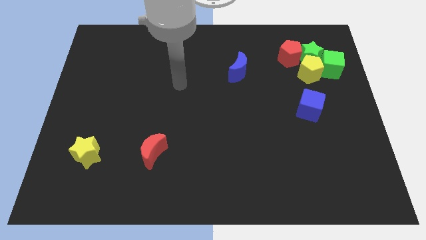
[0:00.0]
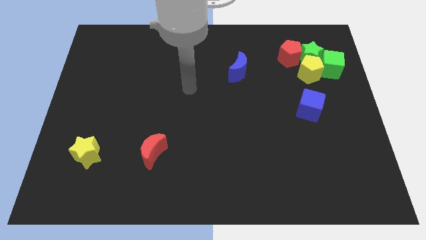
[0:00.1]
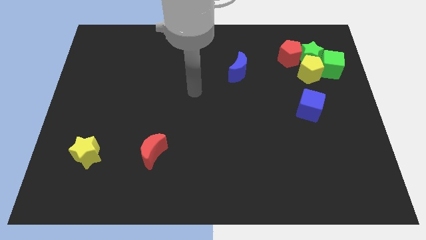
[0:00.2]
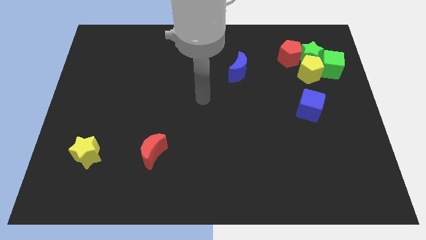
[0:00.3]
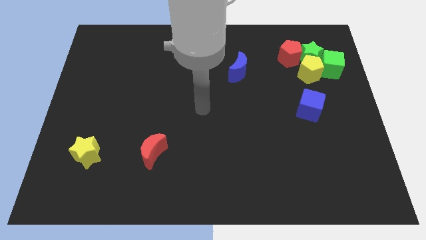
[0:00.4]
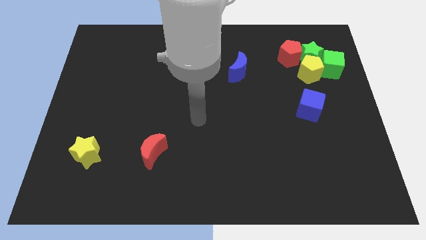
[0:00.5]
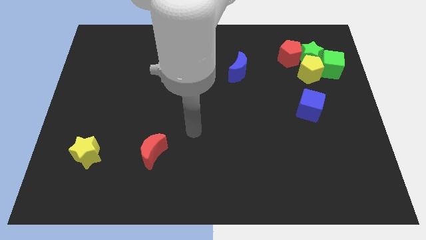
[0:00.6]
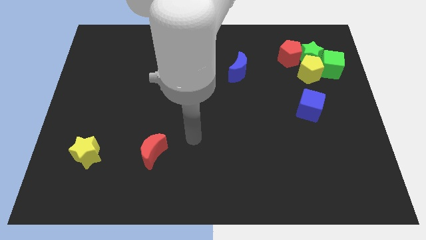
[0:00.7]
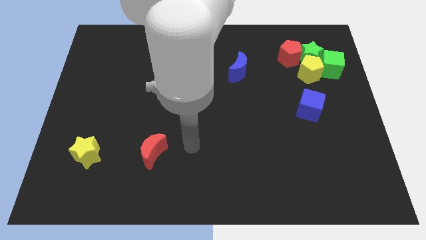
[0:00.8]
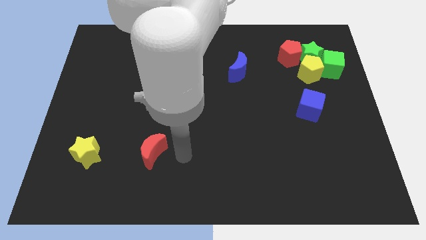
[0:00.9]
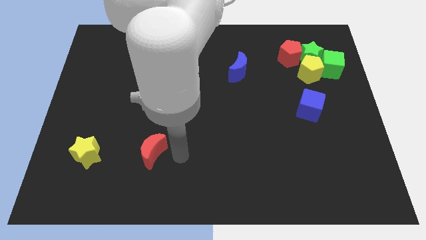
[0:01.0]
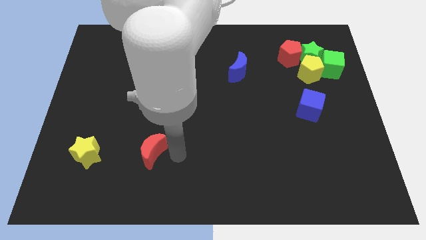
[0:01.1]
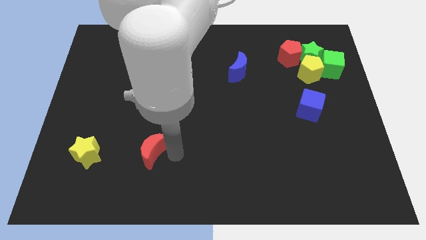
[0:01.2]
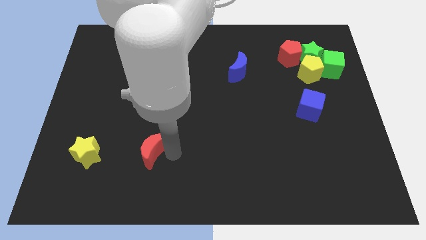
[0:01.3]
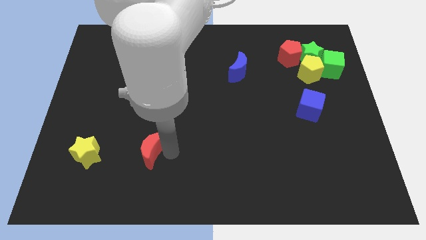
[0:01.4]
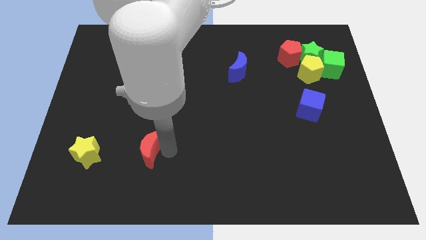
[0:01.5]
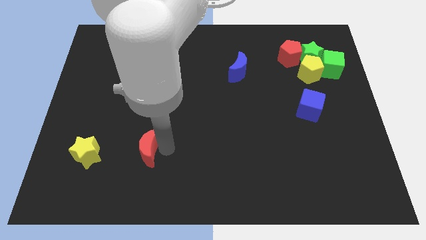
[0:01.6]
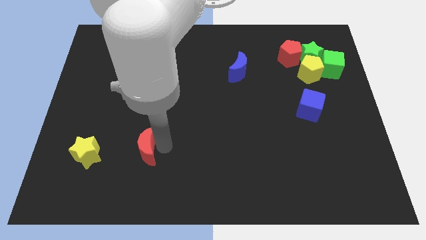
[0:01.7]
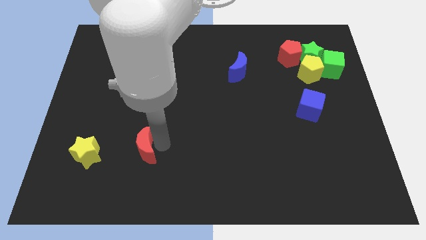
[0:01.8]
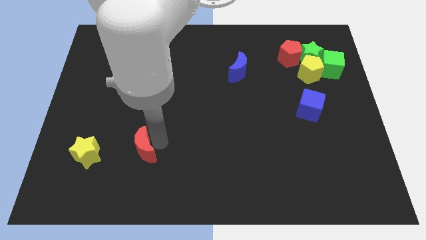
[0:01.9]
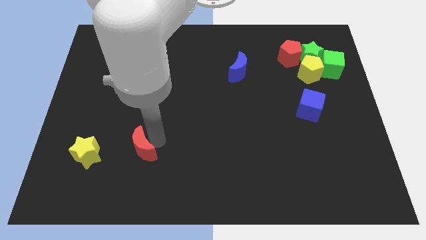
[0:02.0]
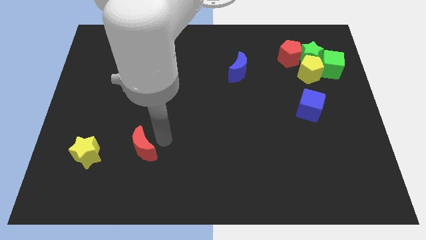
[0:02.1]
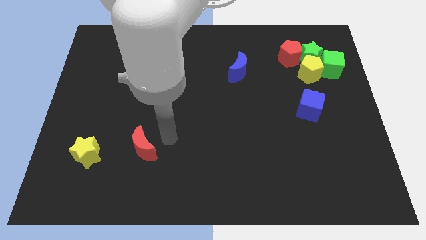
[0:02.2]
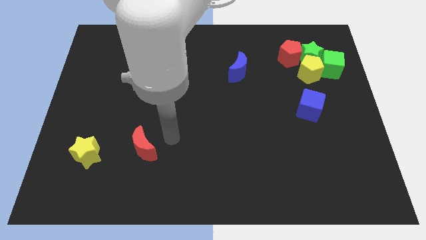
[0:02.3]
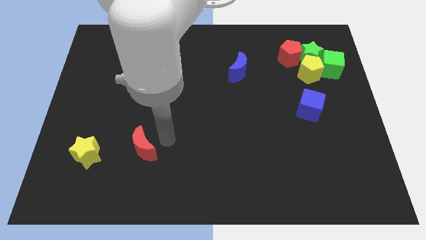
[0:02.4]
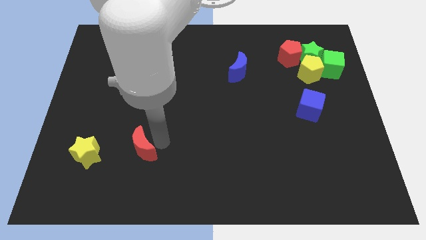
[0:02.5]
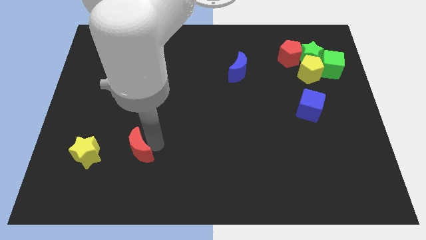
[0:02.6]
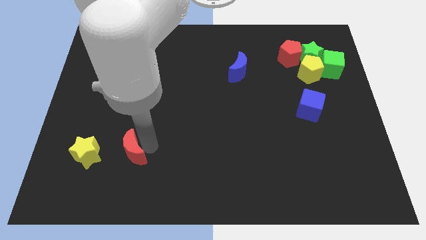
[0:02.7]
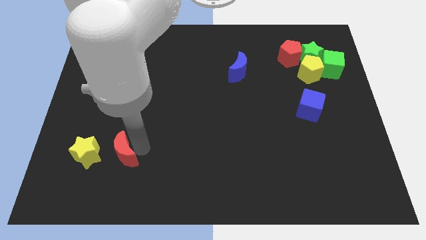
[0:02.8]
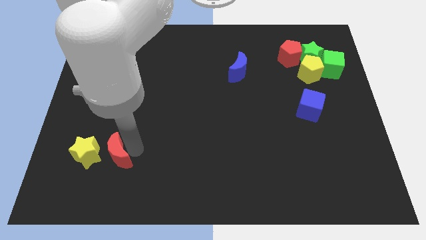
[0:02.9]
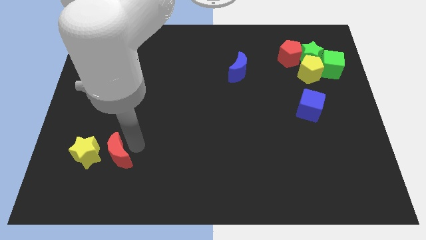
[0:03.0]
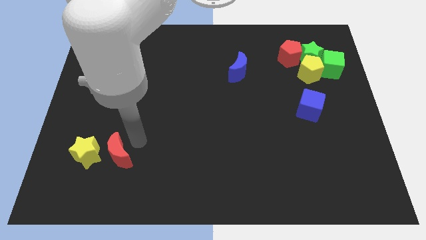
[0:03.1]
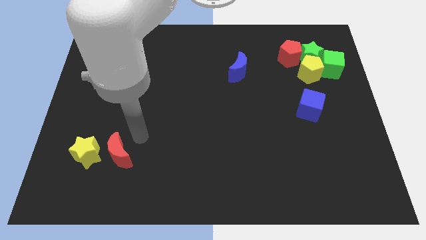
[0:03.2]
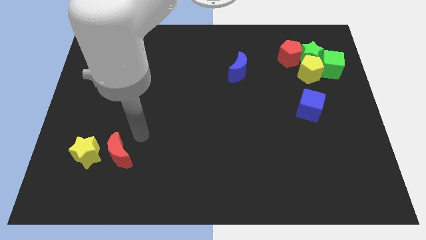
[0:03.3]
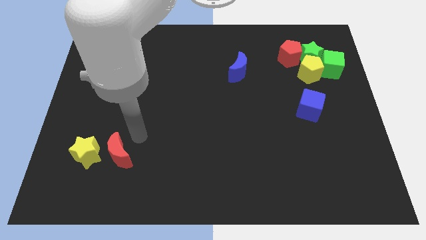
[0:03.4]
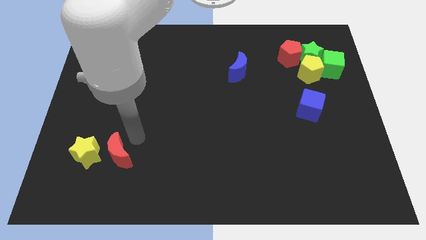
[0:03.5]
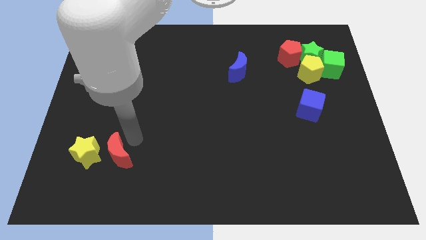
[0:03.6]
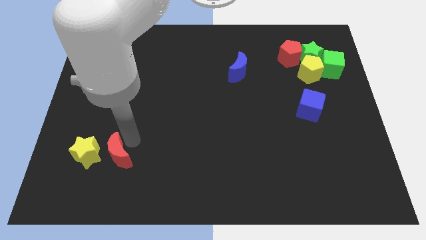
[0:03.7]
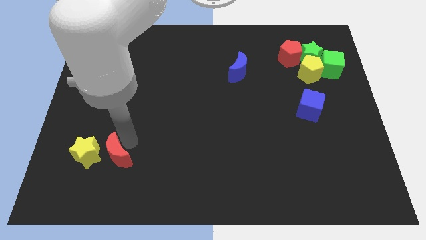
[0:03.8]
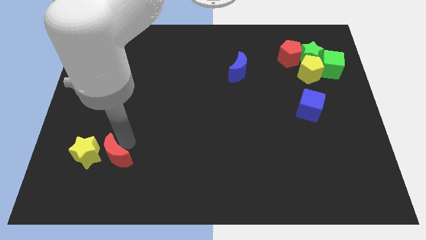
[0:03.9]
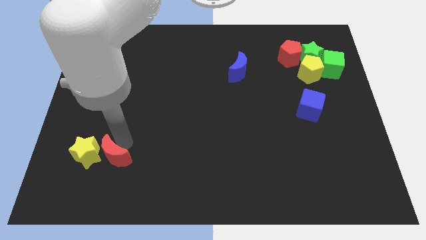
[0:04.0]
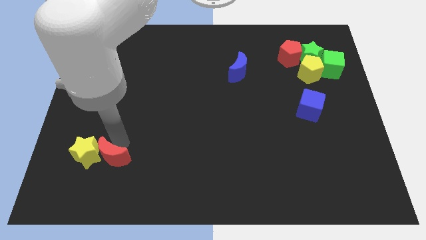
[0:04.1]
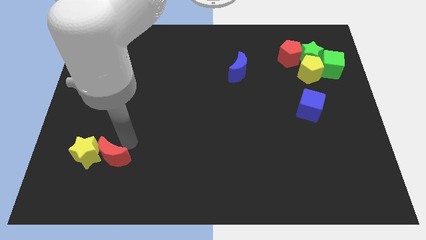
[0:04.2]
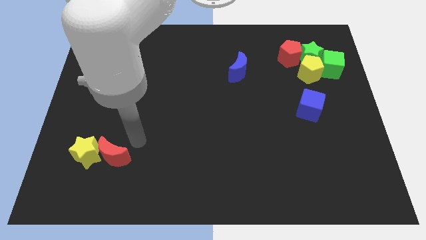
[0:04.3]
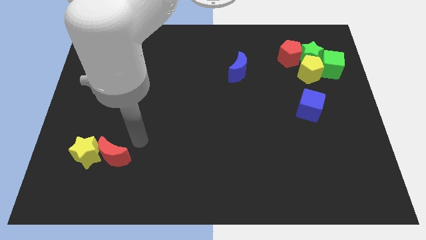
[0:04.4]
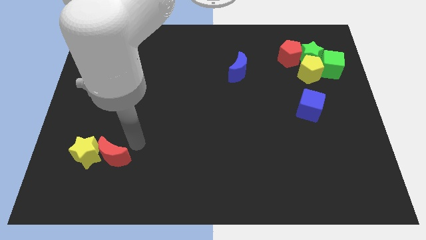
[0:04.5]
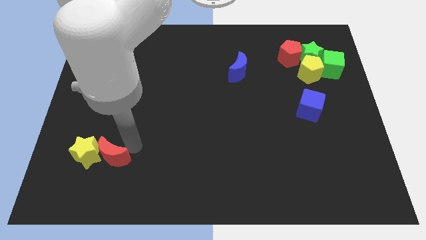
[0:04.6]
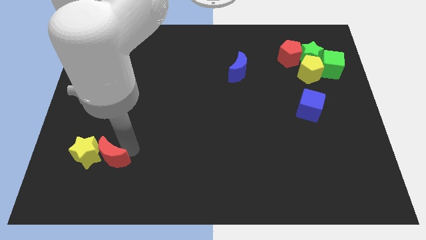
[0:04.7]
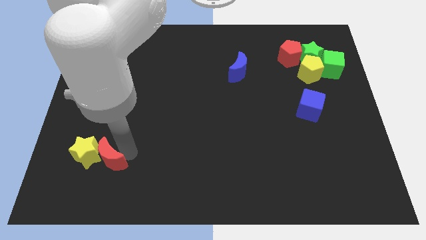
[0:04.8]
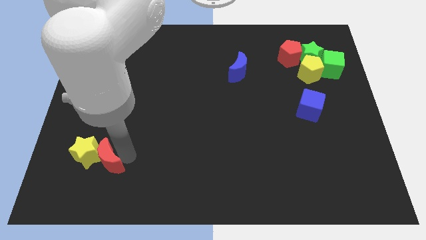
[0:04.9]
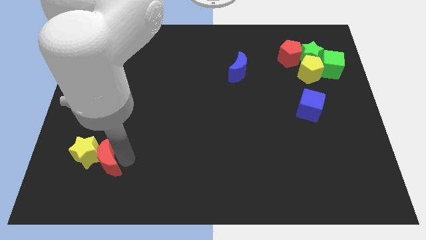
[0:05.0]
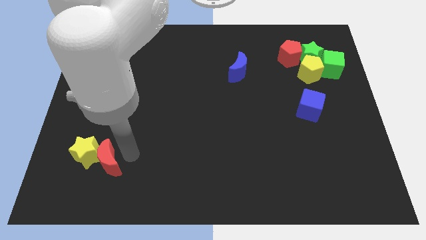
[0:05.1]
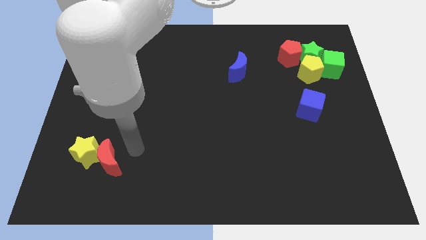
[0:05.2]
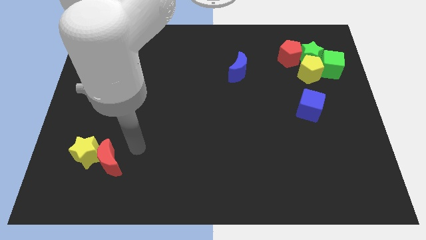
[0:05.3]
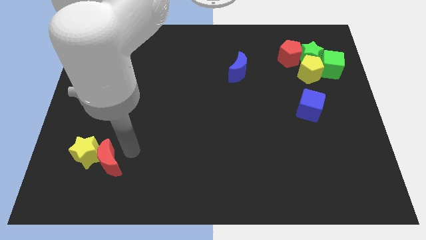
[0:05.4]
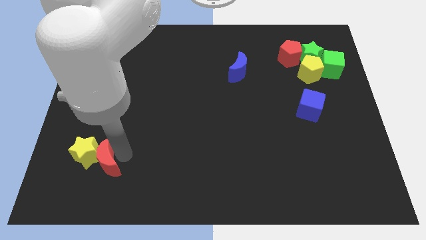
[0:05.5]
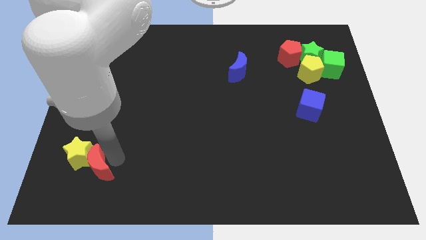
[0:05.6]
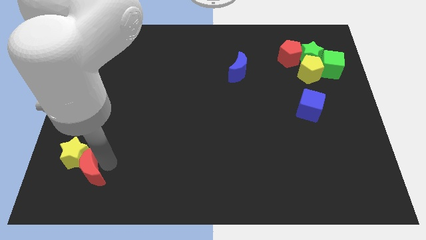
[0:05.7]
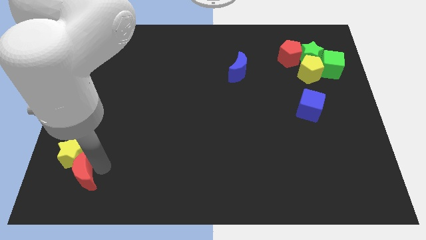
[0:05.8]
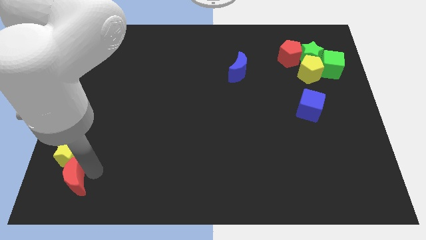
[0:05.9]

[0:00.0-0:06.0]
move the red moon to the lower left corner

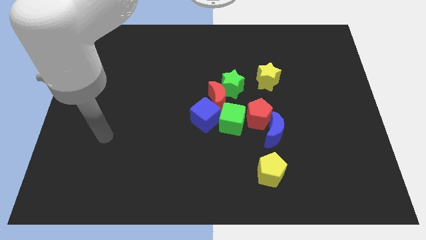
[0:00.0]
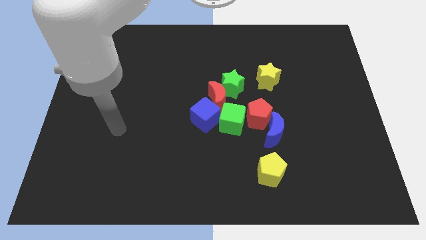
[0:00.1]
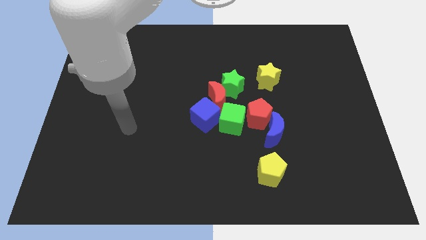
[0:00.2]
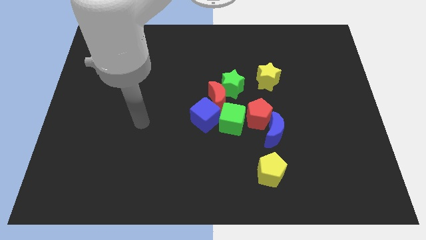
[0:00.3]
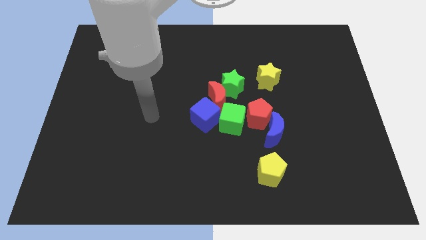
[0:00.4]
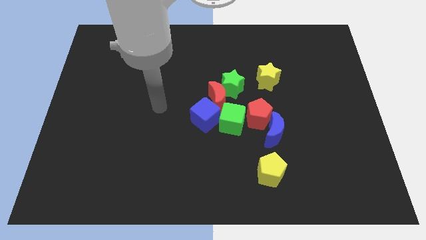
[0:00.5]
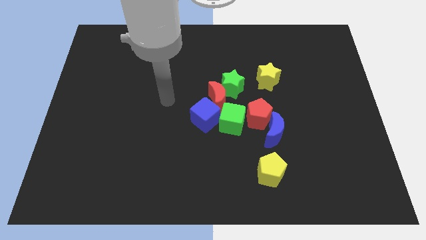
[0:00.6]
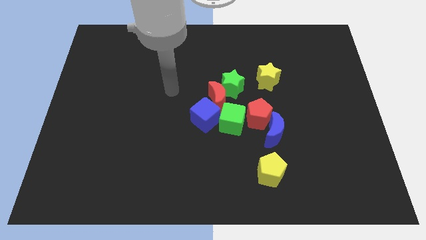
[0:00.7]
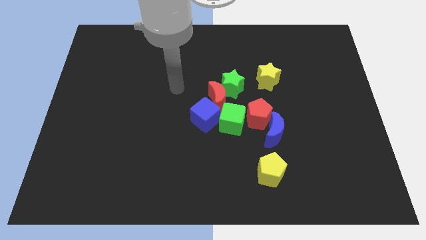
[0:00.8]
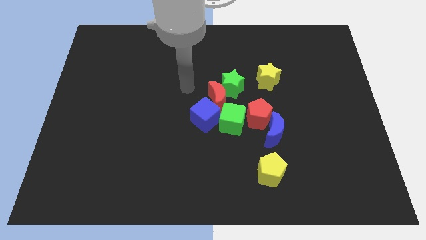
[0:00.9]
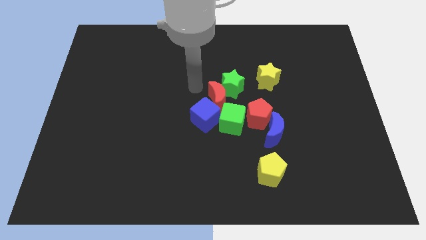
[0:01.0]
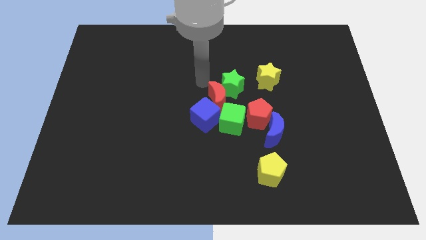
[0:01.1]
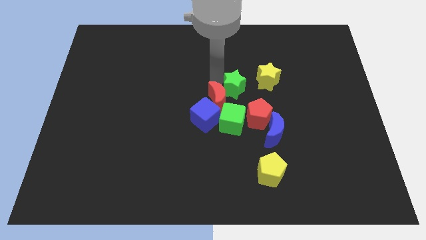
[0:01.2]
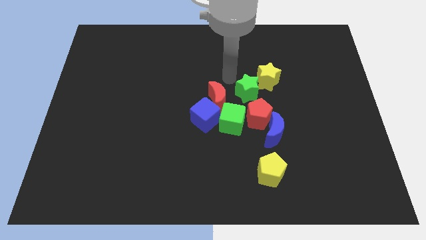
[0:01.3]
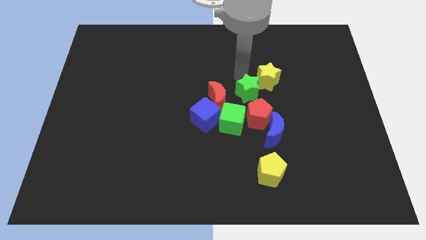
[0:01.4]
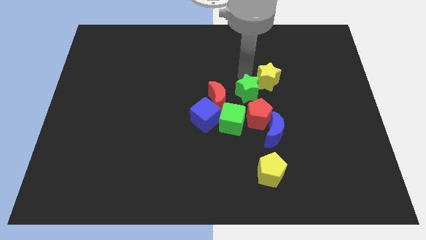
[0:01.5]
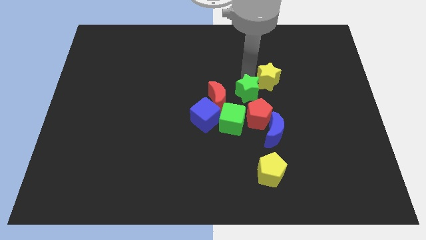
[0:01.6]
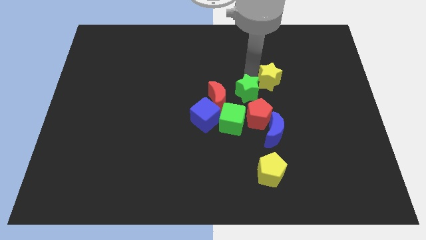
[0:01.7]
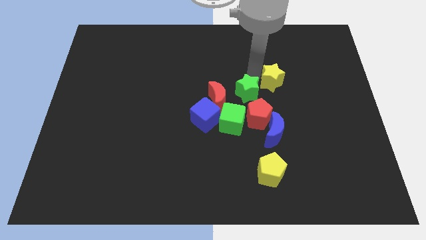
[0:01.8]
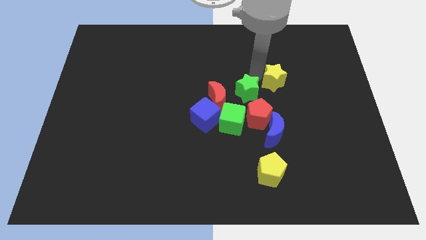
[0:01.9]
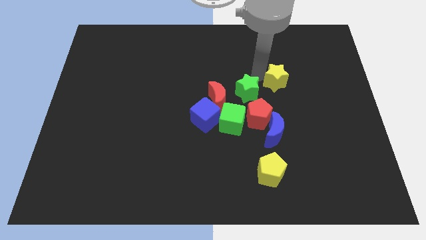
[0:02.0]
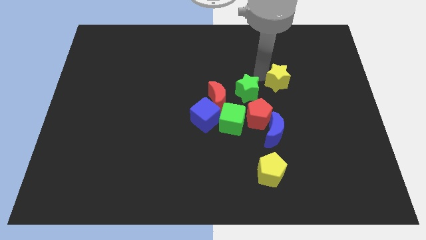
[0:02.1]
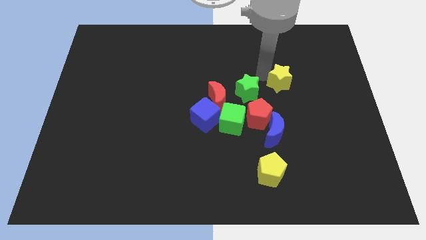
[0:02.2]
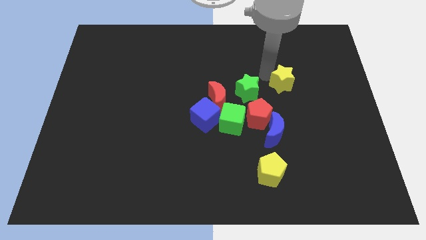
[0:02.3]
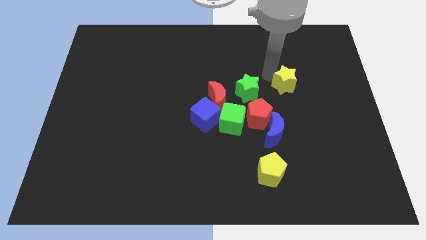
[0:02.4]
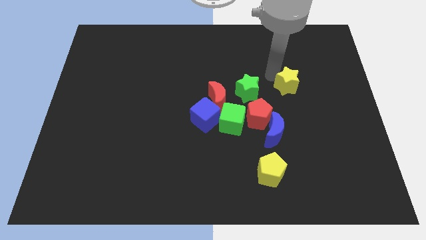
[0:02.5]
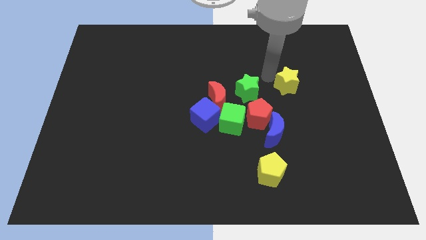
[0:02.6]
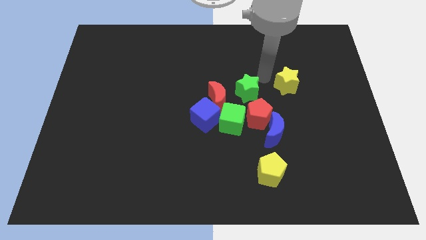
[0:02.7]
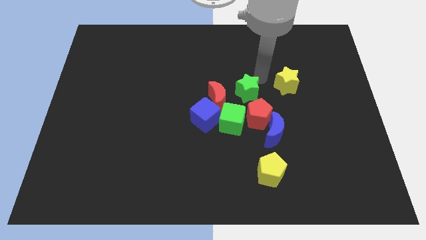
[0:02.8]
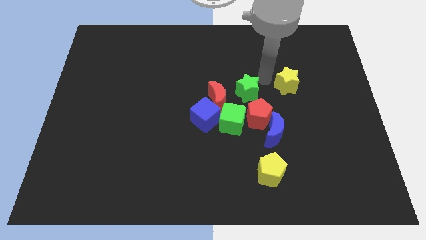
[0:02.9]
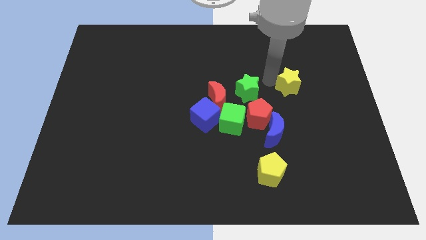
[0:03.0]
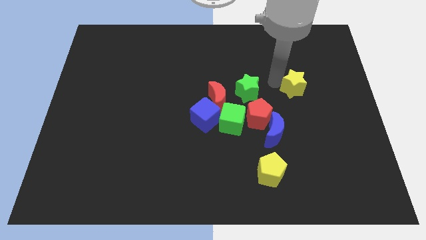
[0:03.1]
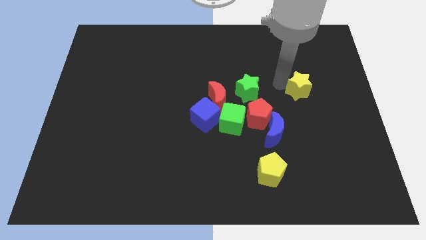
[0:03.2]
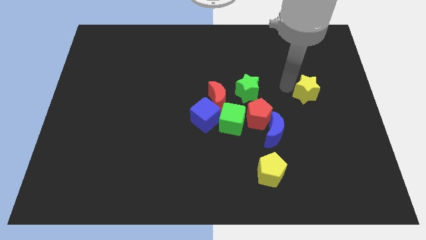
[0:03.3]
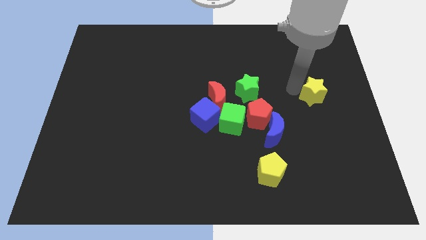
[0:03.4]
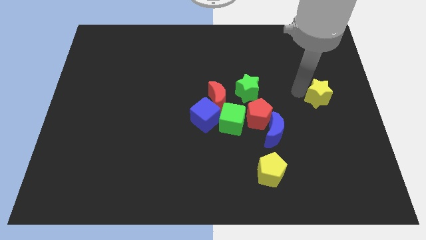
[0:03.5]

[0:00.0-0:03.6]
move the yellow star to the right side
